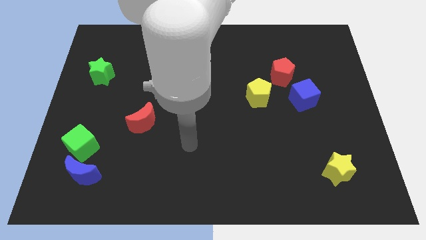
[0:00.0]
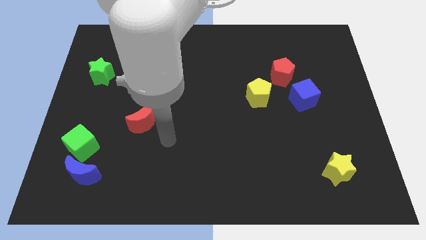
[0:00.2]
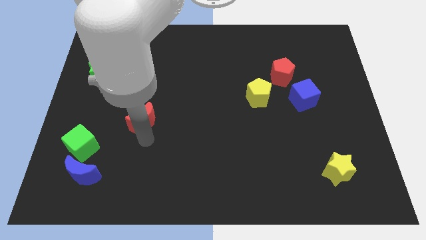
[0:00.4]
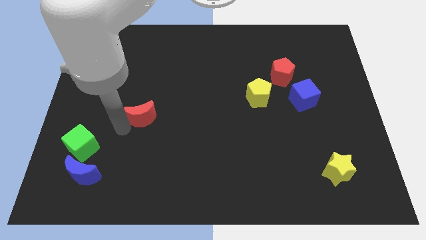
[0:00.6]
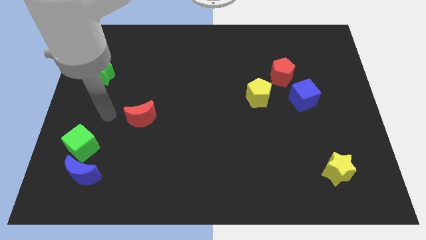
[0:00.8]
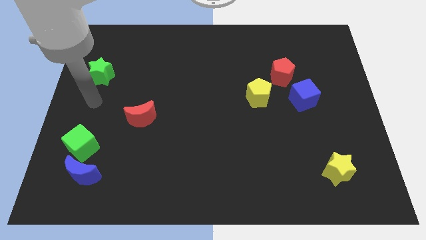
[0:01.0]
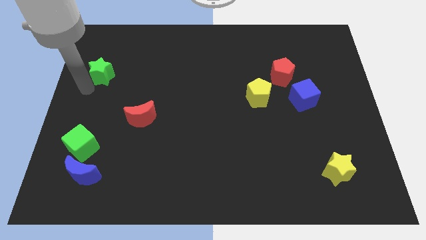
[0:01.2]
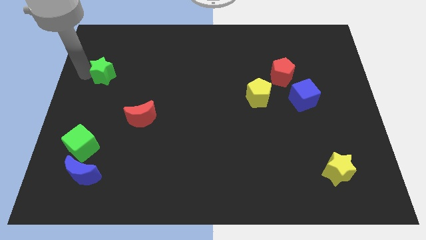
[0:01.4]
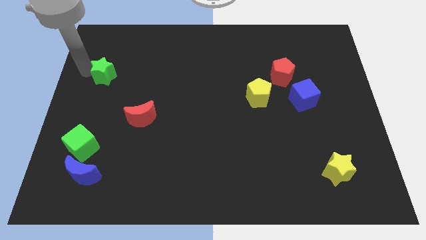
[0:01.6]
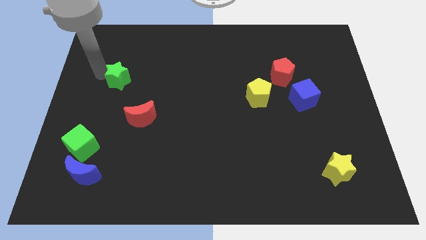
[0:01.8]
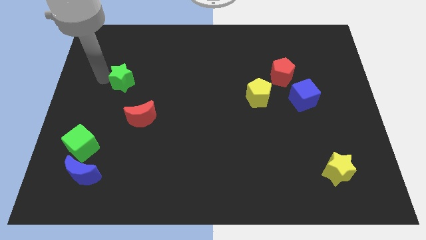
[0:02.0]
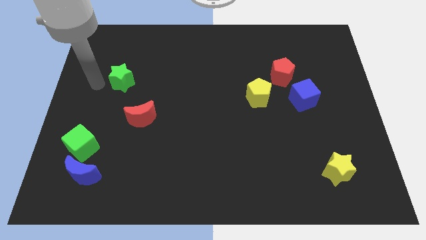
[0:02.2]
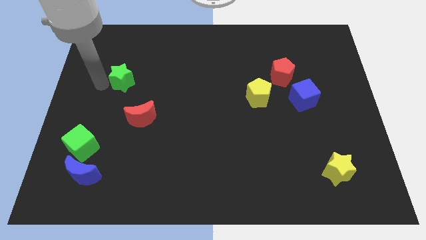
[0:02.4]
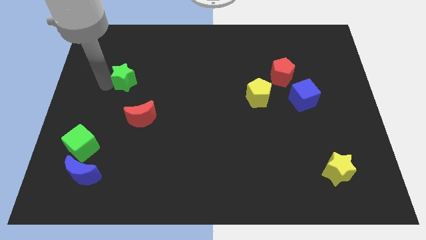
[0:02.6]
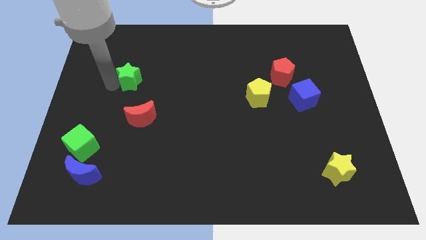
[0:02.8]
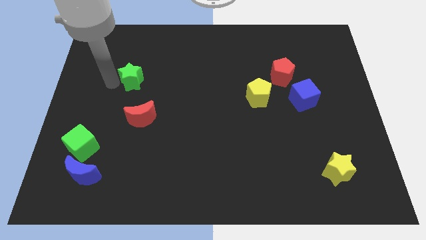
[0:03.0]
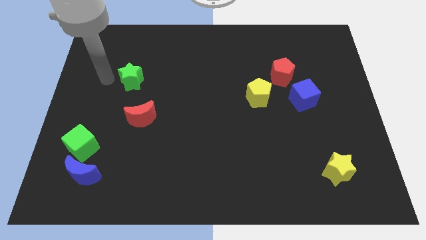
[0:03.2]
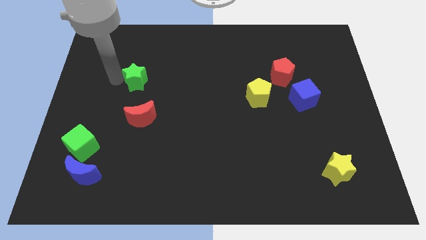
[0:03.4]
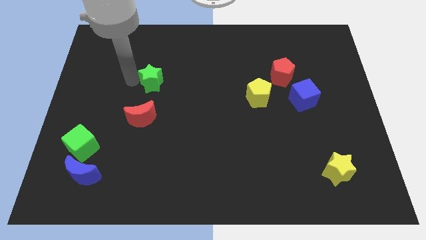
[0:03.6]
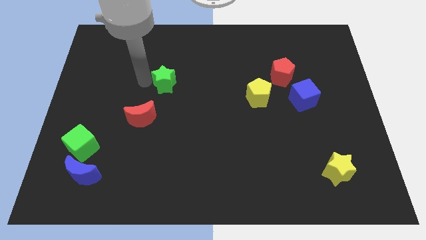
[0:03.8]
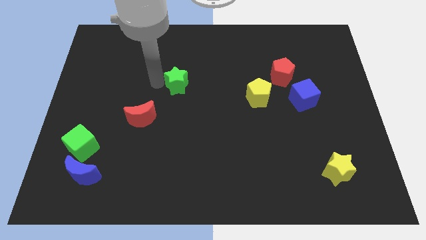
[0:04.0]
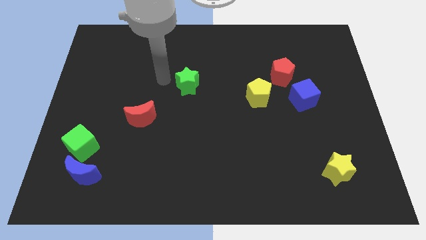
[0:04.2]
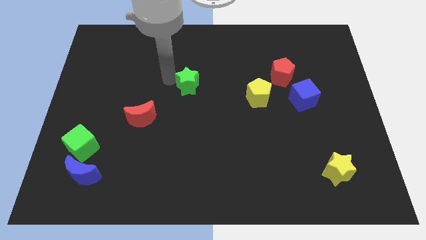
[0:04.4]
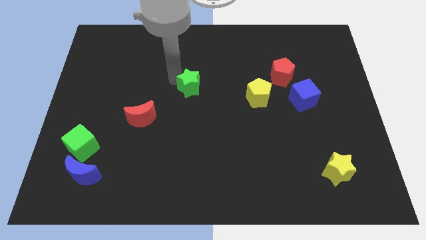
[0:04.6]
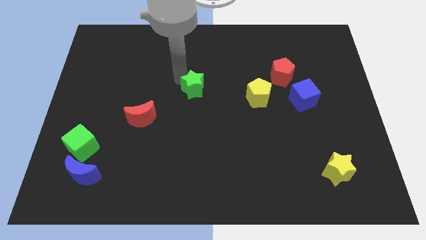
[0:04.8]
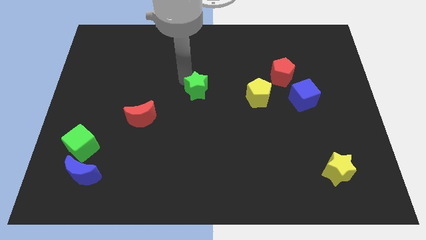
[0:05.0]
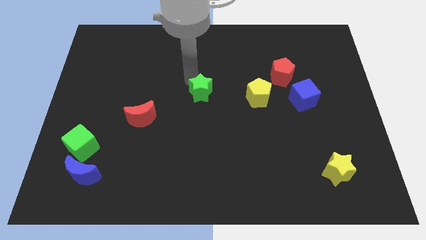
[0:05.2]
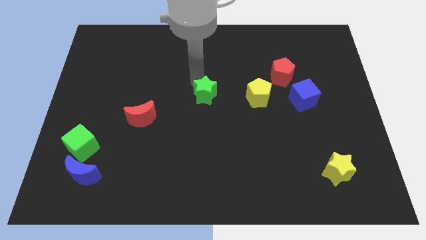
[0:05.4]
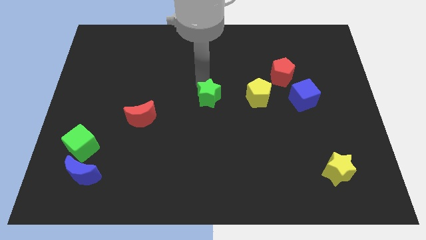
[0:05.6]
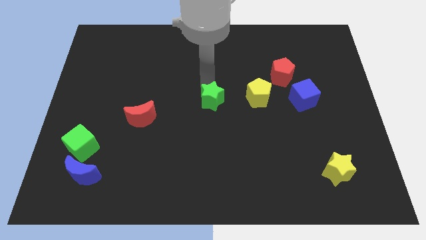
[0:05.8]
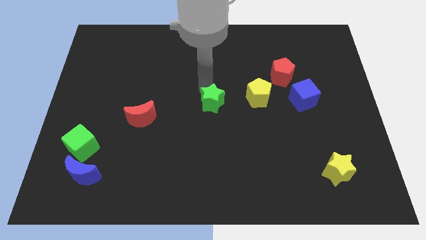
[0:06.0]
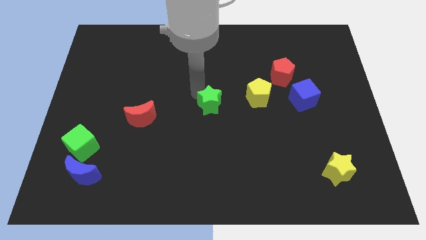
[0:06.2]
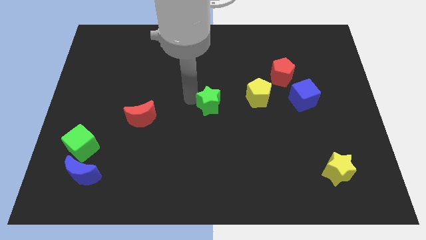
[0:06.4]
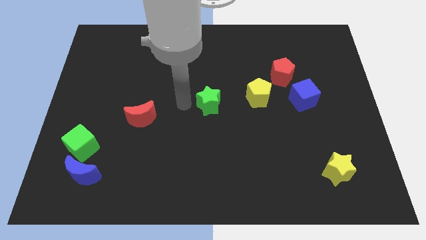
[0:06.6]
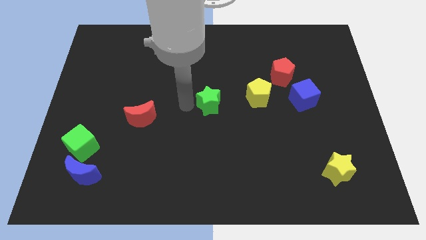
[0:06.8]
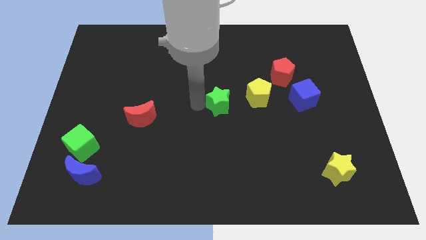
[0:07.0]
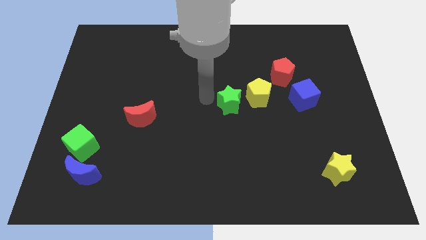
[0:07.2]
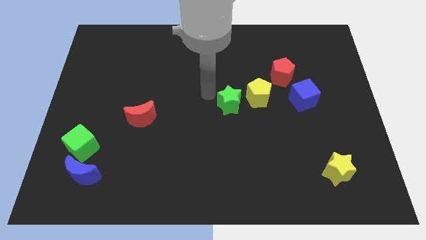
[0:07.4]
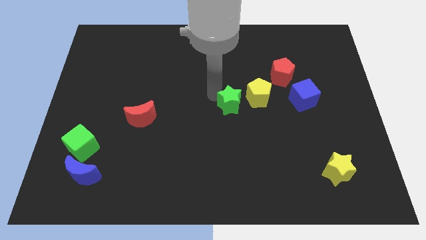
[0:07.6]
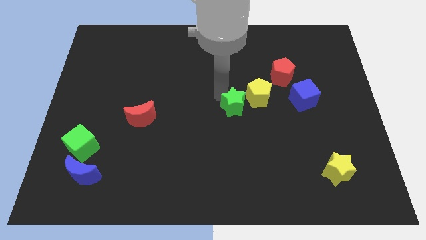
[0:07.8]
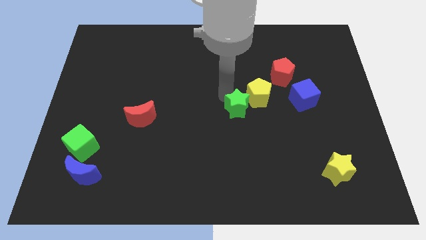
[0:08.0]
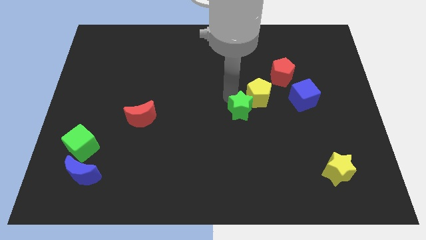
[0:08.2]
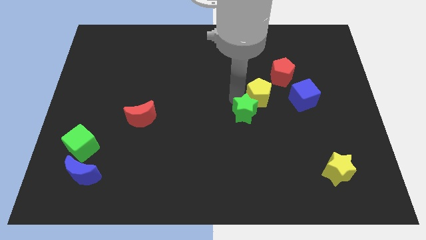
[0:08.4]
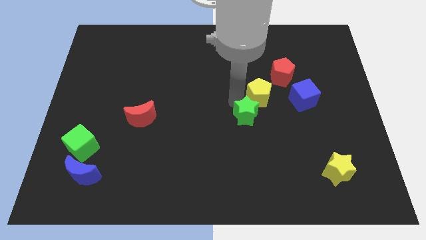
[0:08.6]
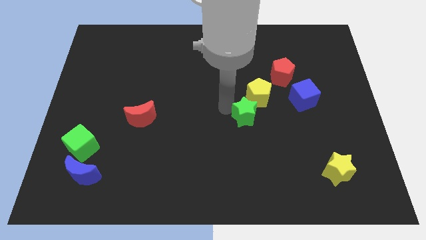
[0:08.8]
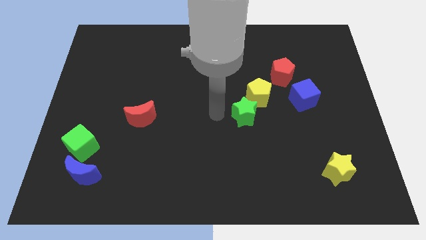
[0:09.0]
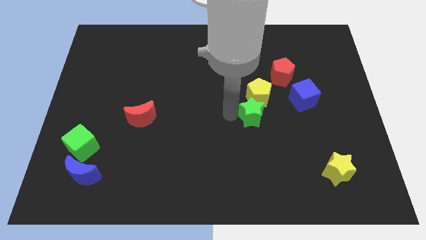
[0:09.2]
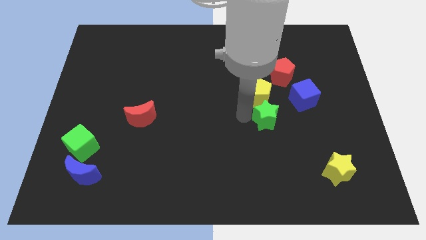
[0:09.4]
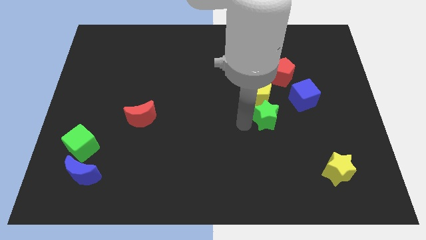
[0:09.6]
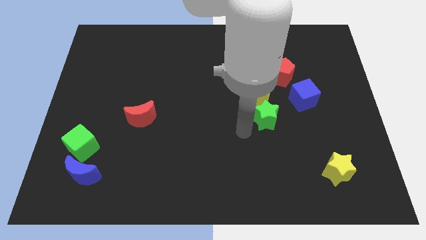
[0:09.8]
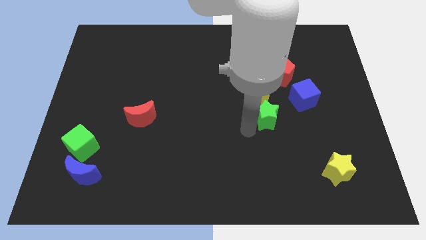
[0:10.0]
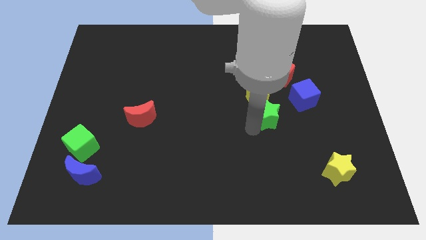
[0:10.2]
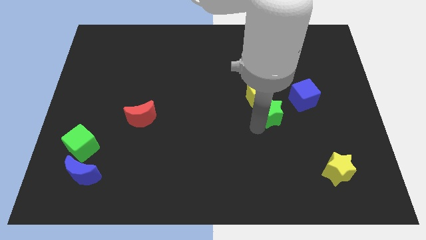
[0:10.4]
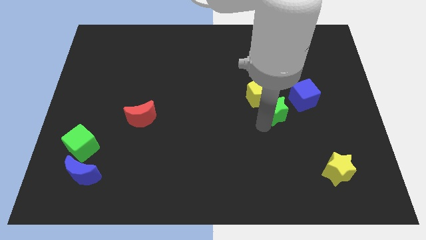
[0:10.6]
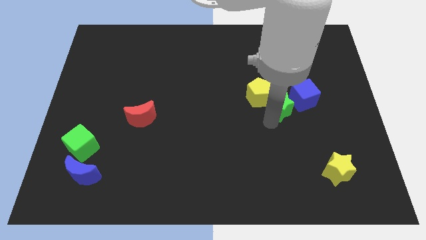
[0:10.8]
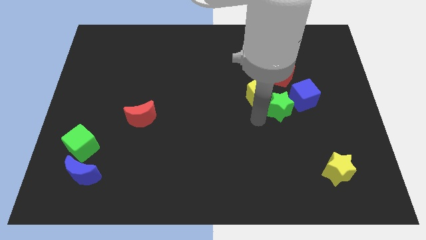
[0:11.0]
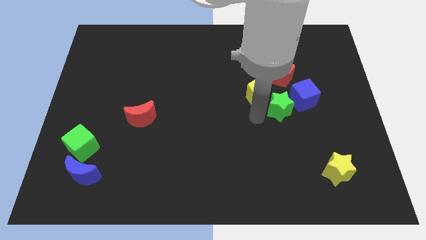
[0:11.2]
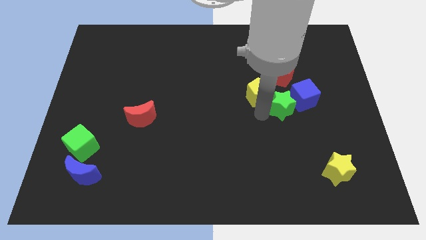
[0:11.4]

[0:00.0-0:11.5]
move the green star towards the blue cube

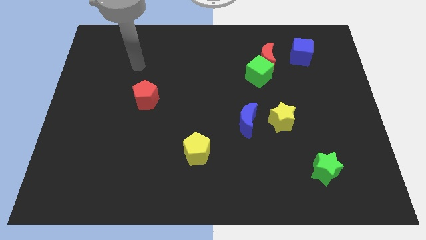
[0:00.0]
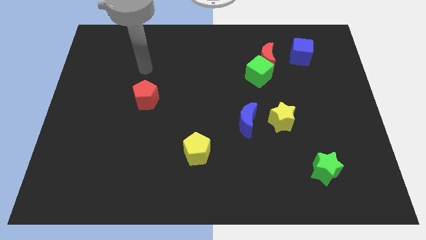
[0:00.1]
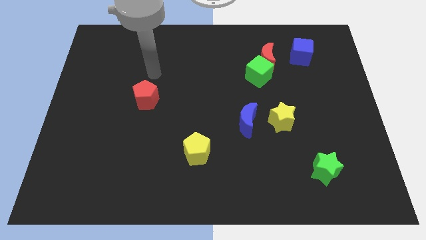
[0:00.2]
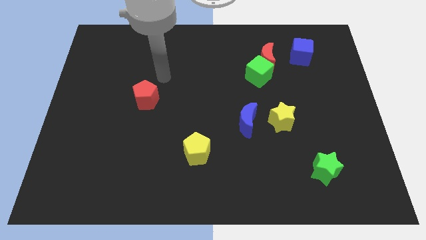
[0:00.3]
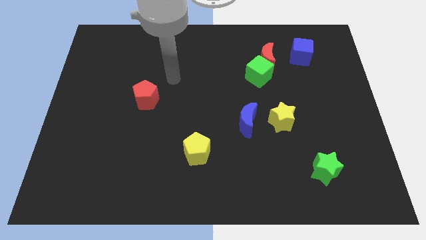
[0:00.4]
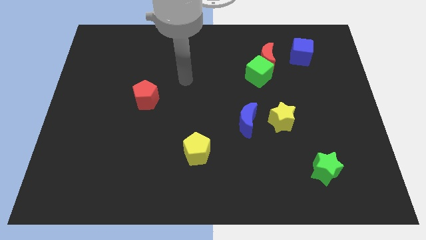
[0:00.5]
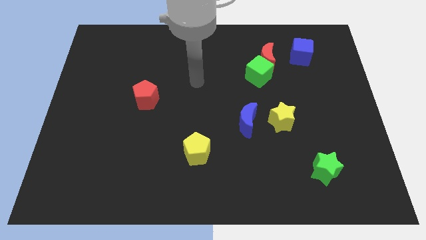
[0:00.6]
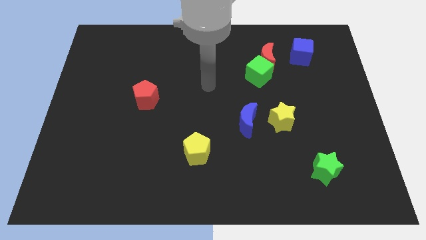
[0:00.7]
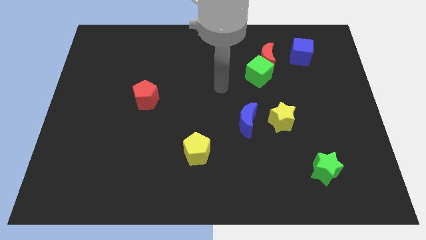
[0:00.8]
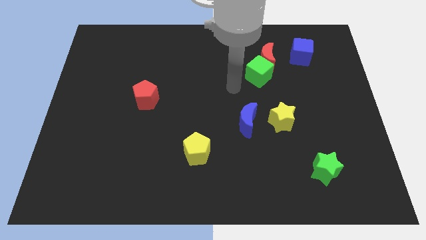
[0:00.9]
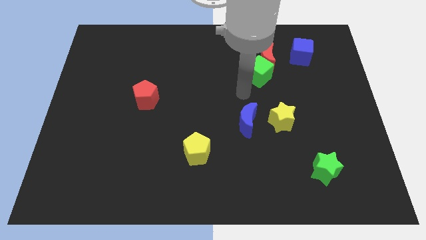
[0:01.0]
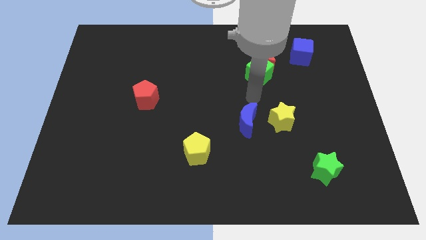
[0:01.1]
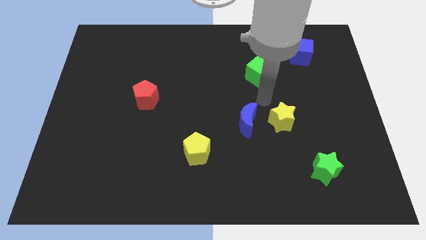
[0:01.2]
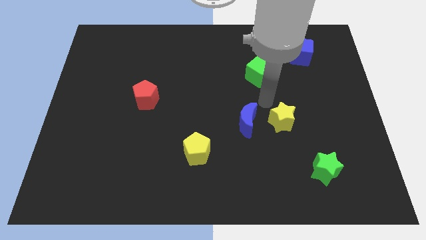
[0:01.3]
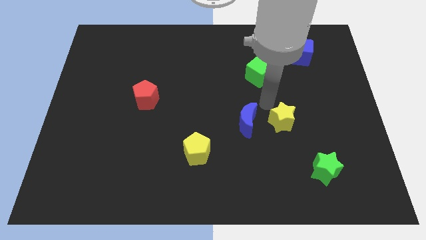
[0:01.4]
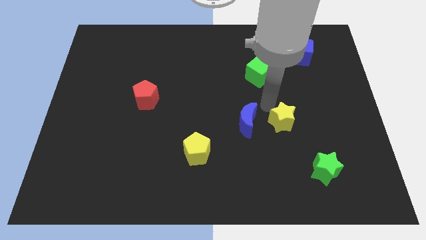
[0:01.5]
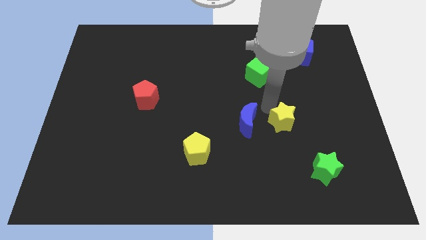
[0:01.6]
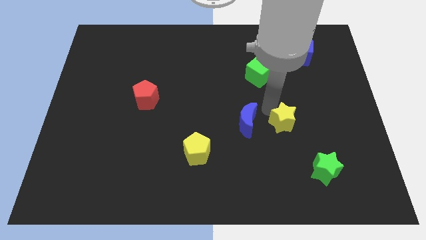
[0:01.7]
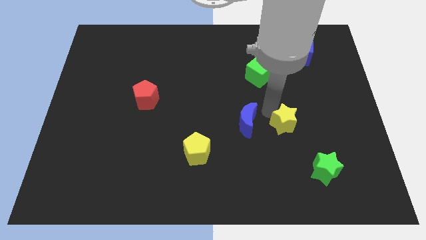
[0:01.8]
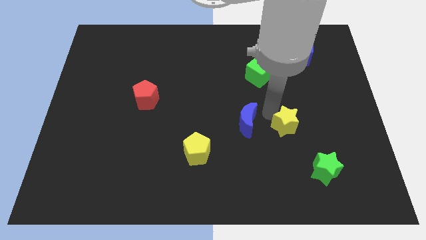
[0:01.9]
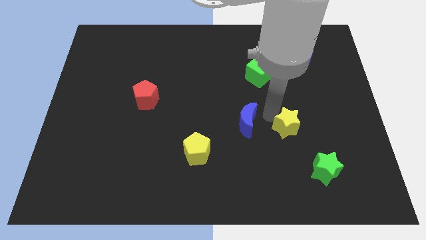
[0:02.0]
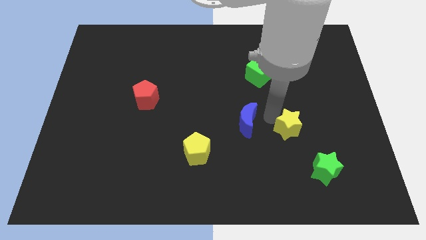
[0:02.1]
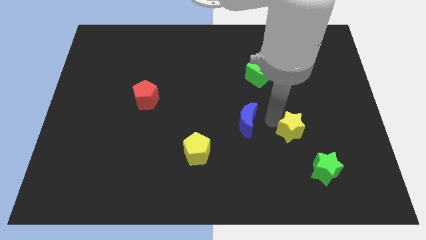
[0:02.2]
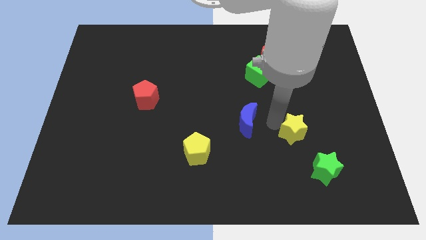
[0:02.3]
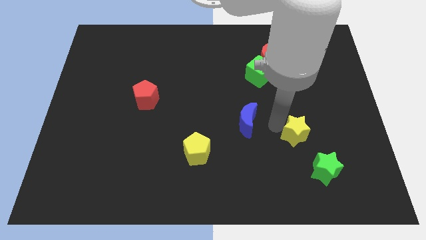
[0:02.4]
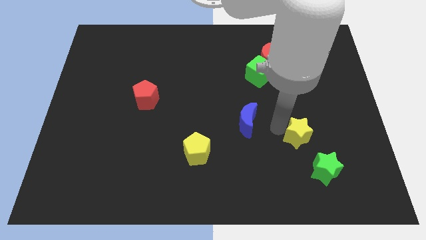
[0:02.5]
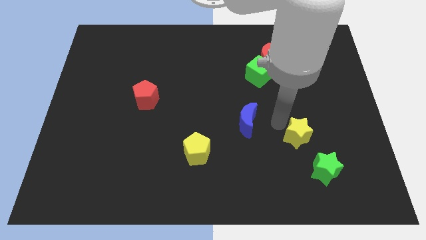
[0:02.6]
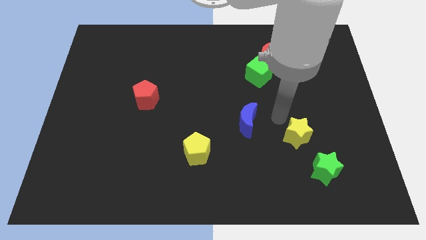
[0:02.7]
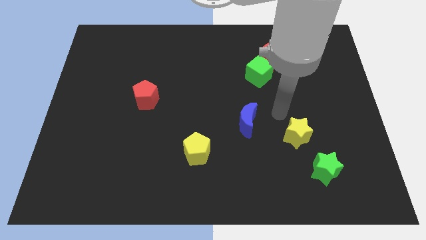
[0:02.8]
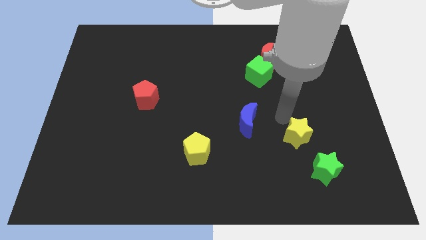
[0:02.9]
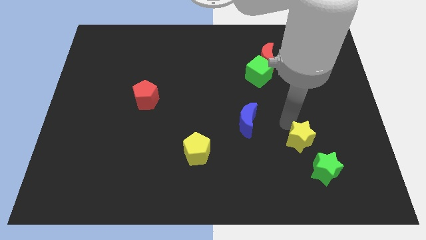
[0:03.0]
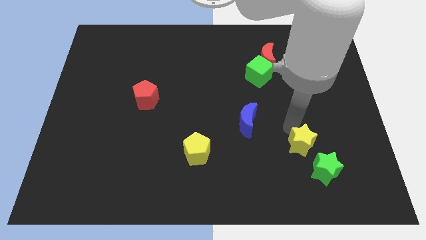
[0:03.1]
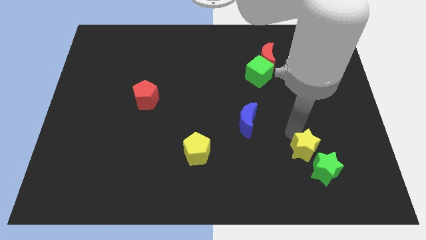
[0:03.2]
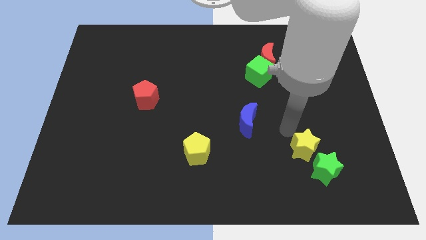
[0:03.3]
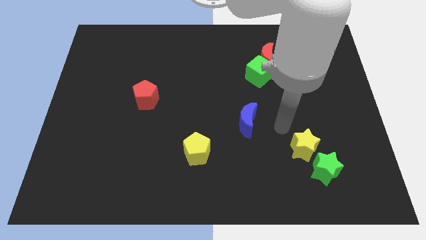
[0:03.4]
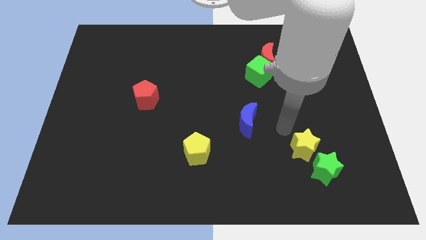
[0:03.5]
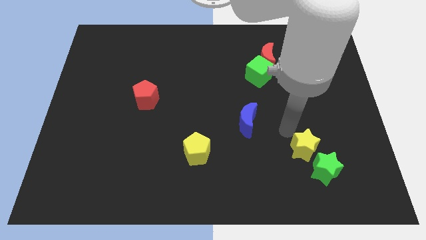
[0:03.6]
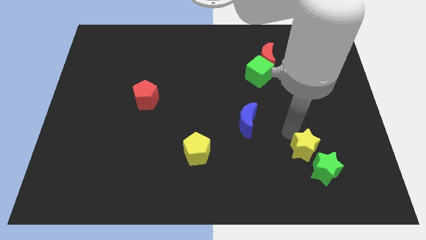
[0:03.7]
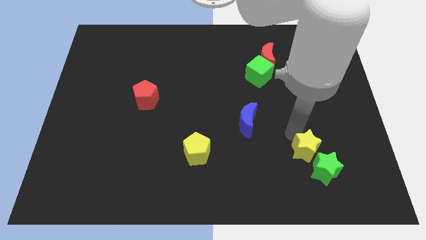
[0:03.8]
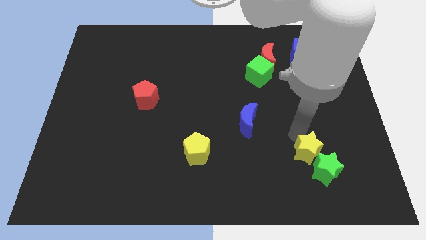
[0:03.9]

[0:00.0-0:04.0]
move the yellow star next to the green star
